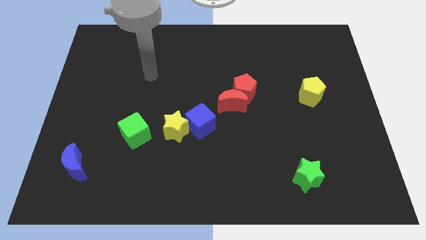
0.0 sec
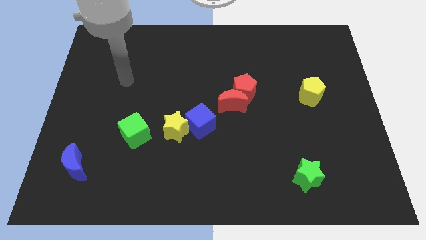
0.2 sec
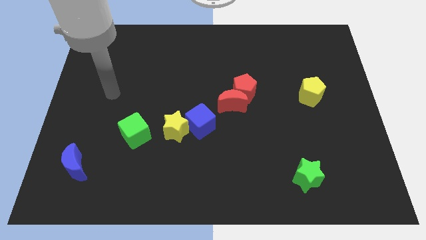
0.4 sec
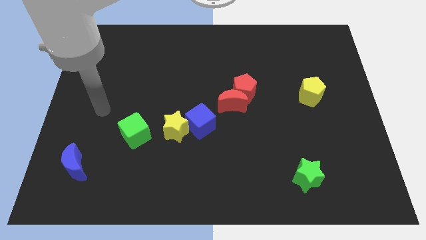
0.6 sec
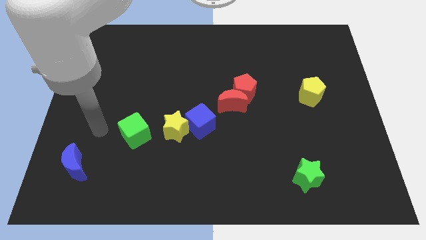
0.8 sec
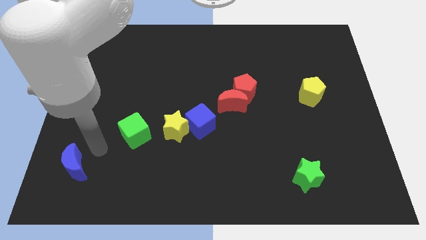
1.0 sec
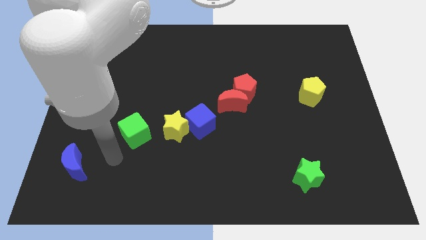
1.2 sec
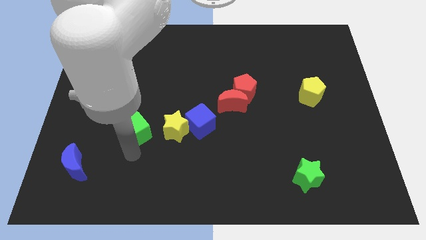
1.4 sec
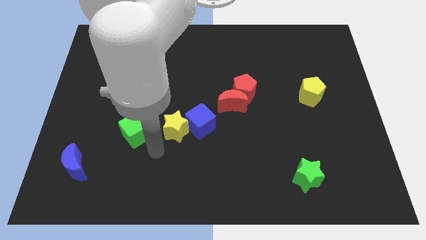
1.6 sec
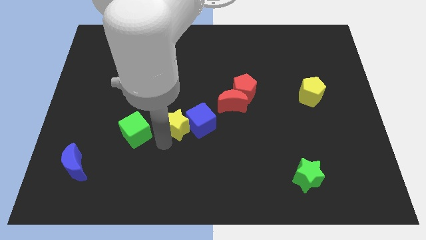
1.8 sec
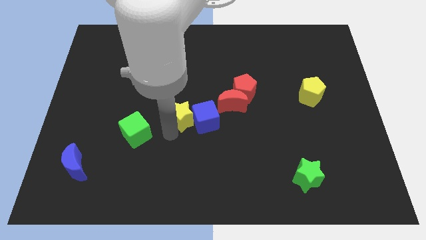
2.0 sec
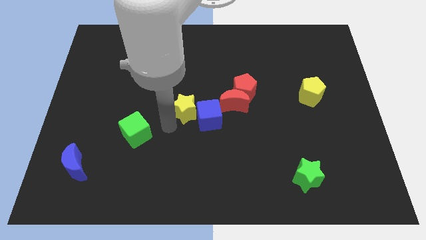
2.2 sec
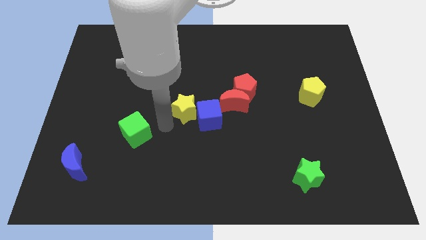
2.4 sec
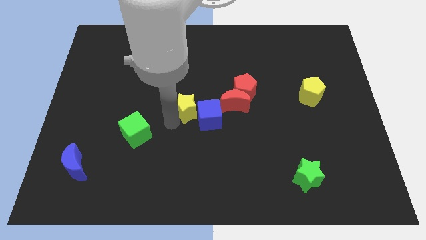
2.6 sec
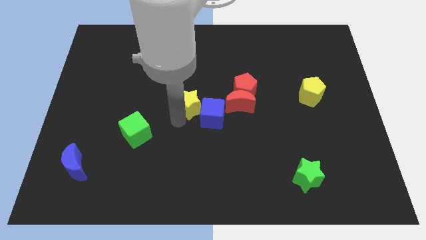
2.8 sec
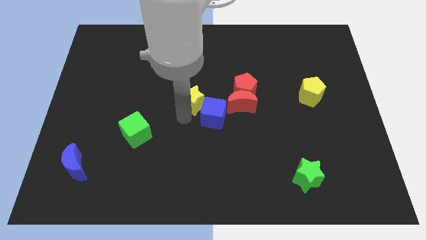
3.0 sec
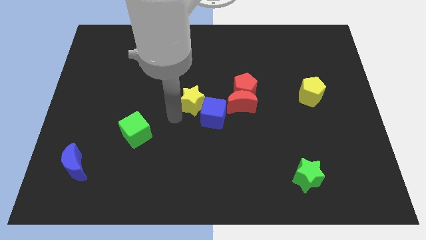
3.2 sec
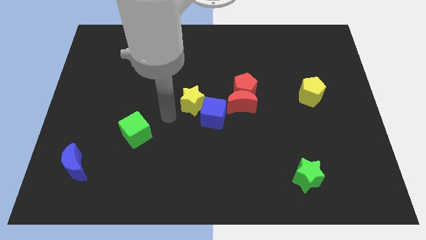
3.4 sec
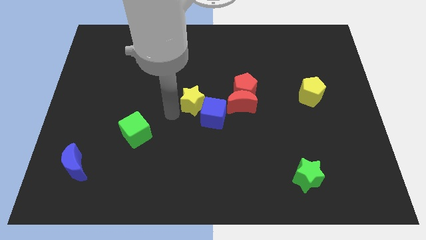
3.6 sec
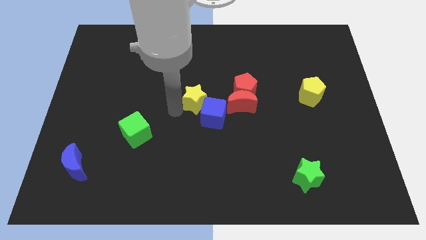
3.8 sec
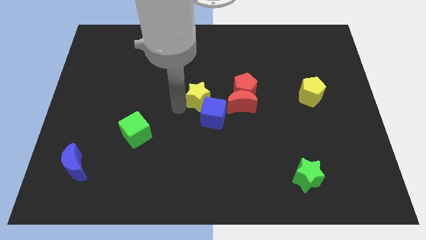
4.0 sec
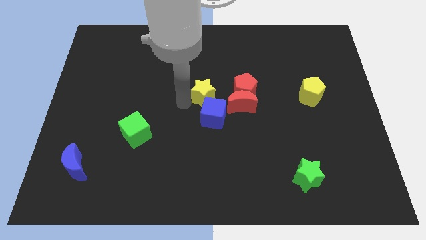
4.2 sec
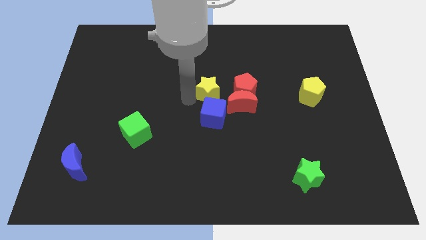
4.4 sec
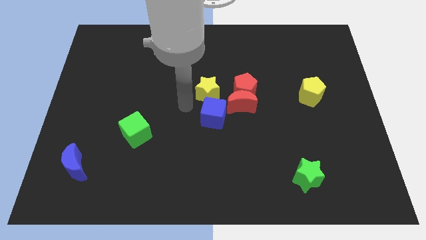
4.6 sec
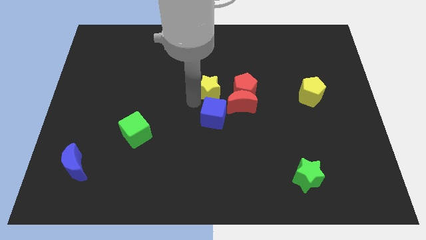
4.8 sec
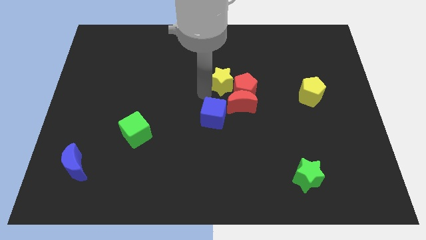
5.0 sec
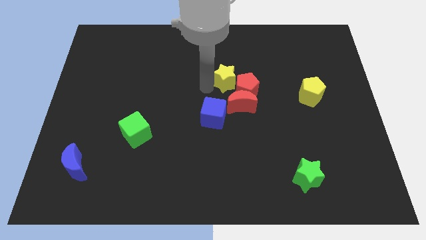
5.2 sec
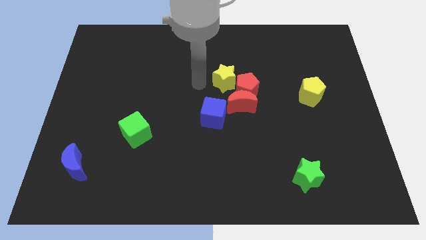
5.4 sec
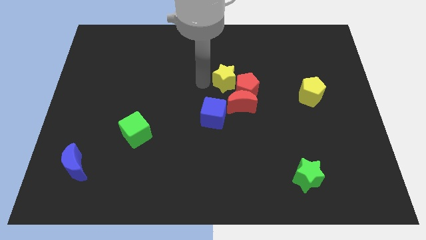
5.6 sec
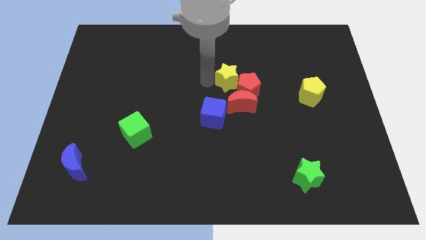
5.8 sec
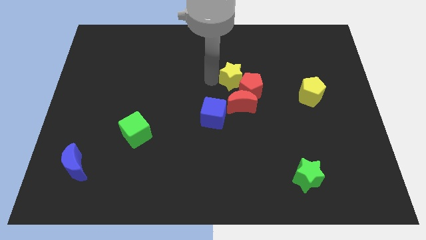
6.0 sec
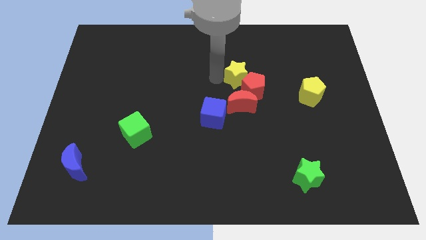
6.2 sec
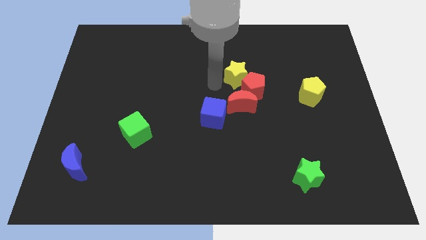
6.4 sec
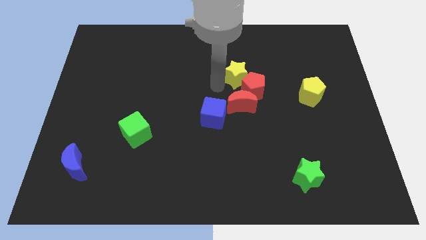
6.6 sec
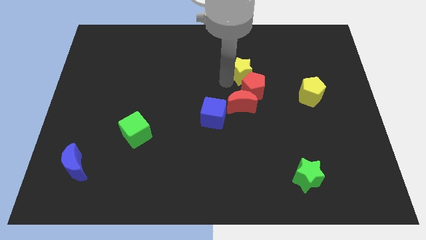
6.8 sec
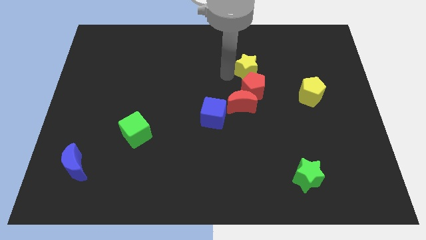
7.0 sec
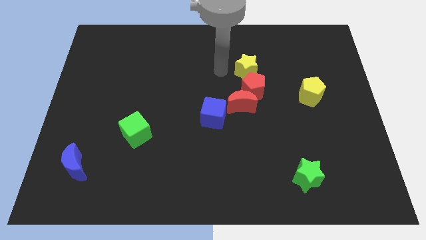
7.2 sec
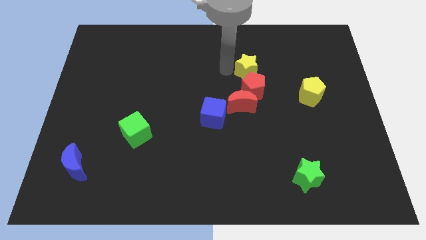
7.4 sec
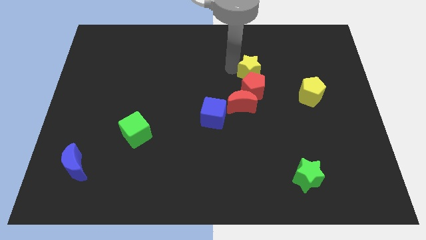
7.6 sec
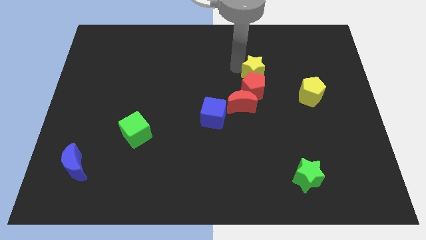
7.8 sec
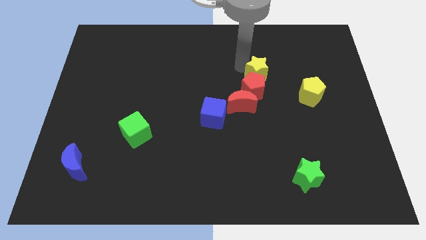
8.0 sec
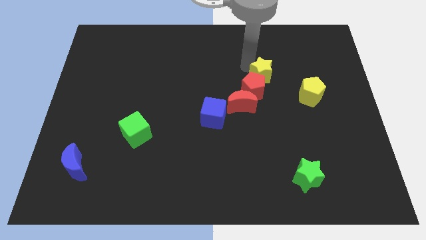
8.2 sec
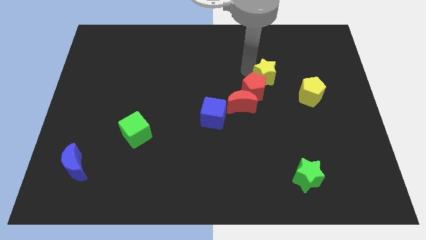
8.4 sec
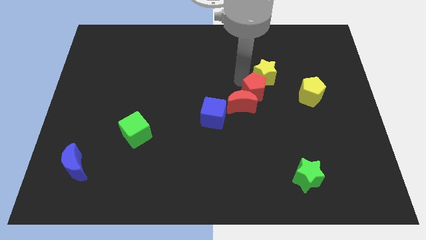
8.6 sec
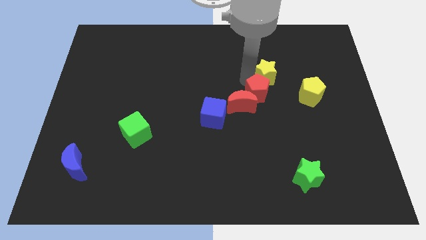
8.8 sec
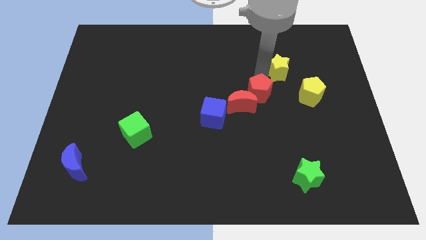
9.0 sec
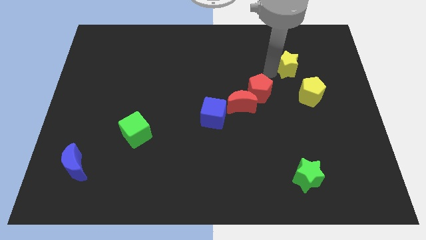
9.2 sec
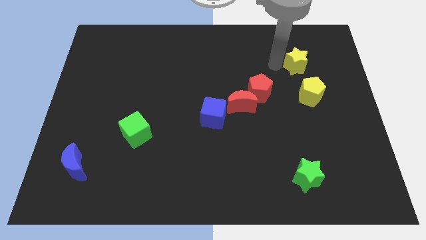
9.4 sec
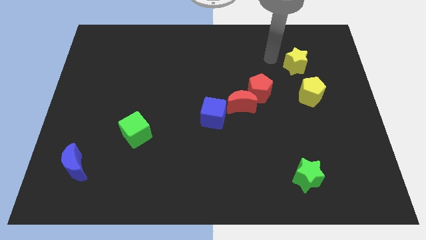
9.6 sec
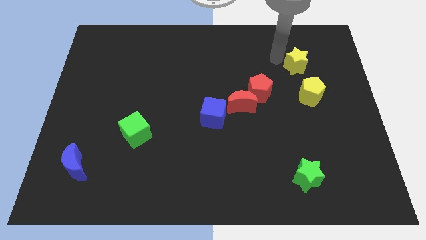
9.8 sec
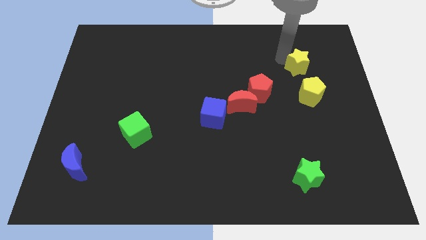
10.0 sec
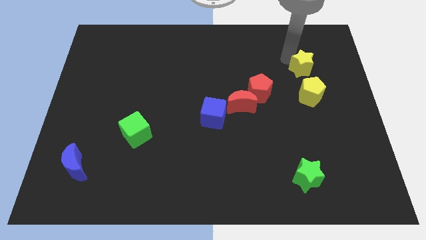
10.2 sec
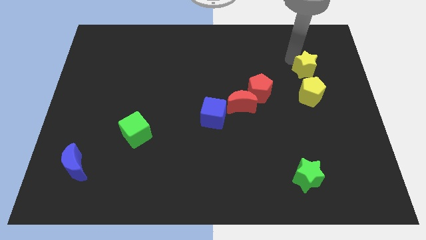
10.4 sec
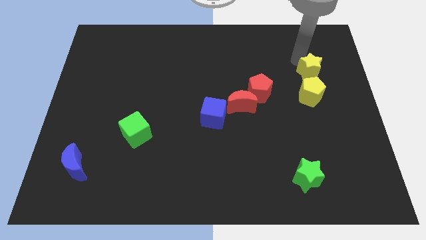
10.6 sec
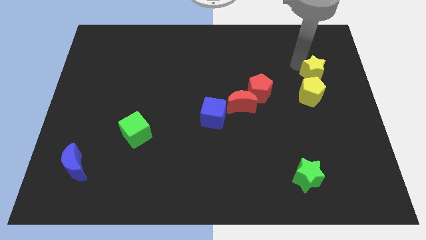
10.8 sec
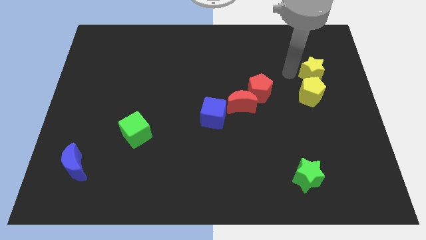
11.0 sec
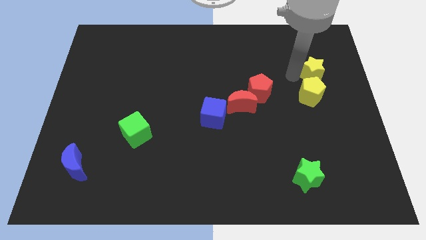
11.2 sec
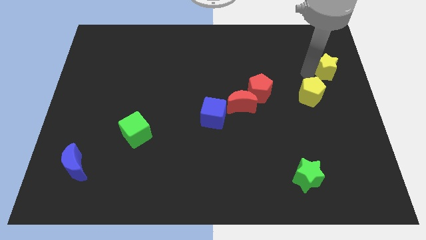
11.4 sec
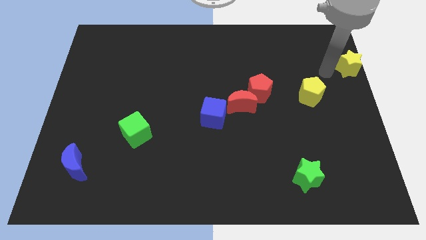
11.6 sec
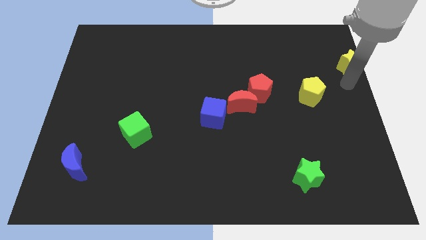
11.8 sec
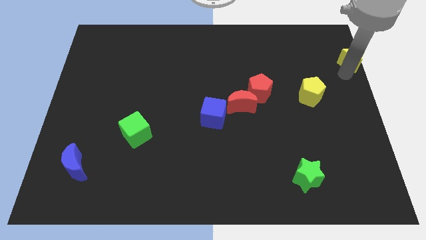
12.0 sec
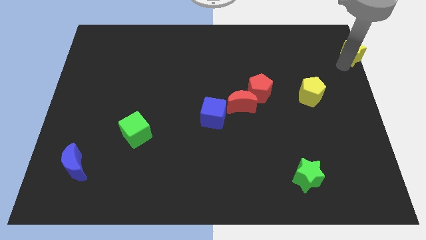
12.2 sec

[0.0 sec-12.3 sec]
put the yellow star to the top right corner
